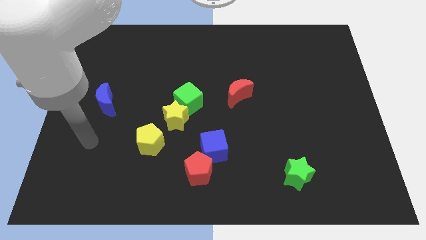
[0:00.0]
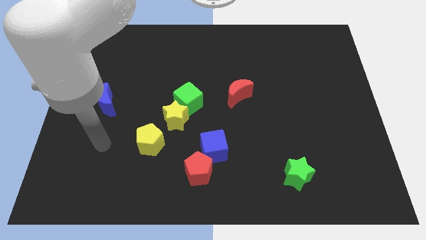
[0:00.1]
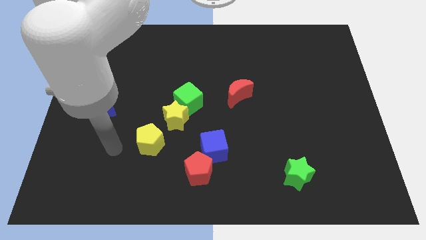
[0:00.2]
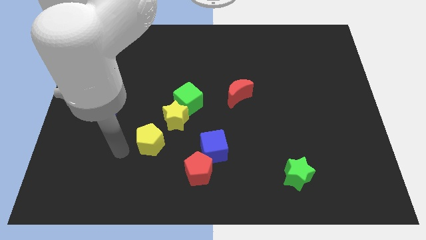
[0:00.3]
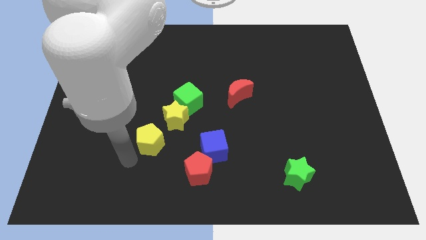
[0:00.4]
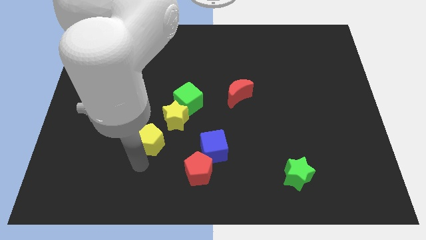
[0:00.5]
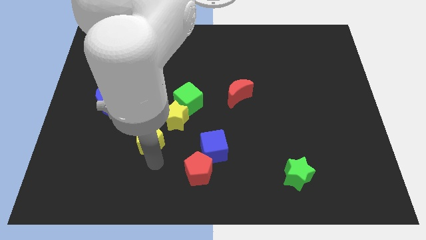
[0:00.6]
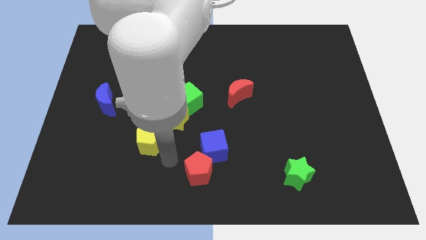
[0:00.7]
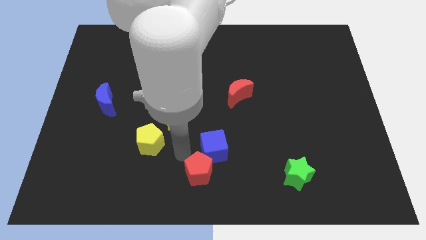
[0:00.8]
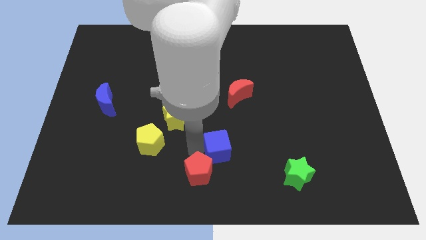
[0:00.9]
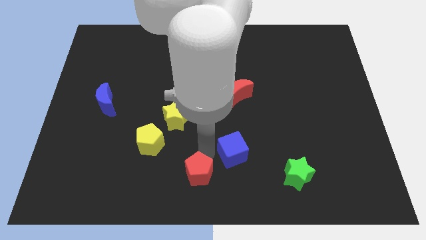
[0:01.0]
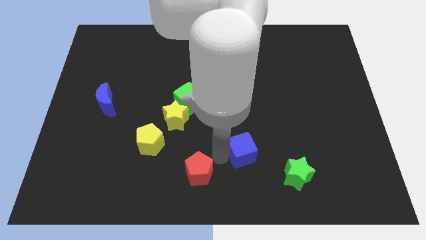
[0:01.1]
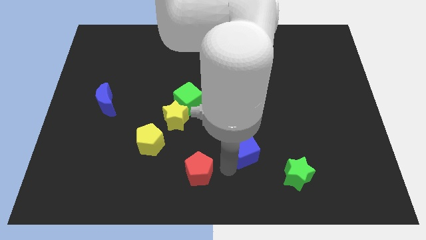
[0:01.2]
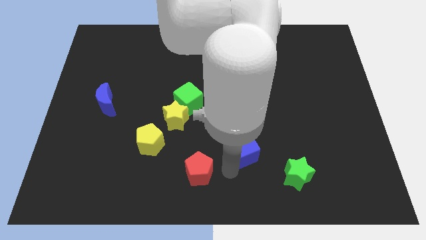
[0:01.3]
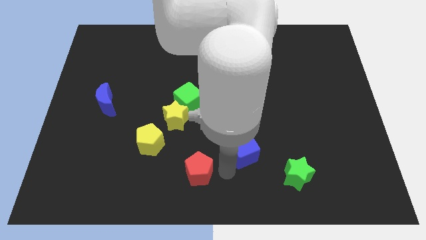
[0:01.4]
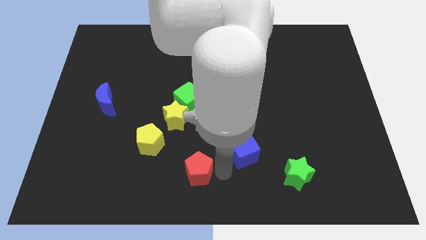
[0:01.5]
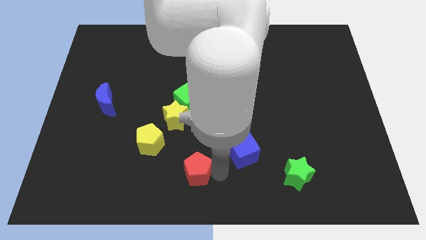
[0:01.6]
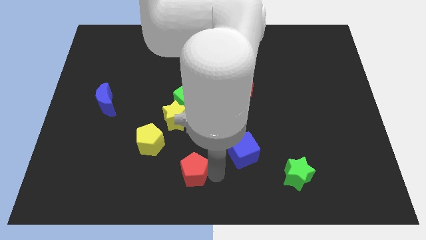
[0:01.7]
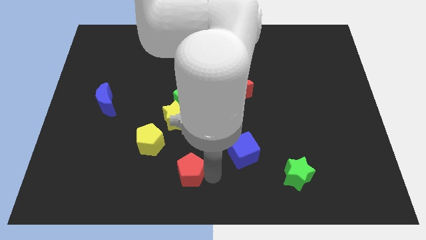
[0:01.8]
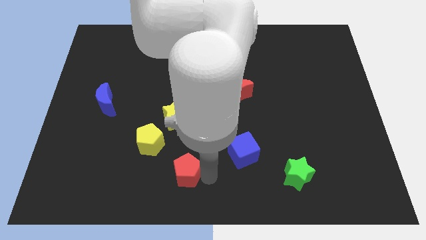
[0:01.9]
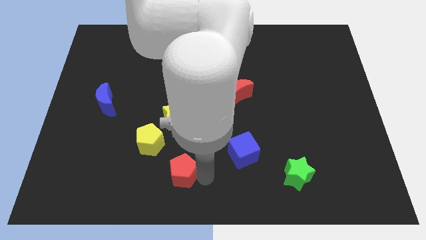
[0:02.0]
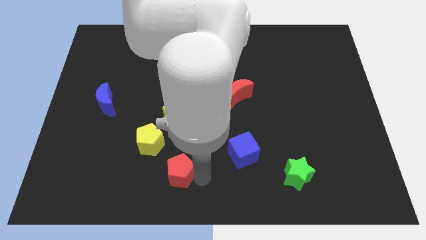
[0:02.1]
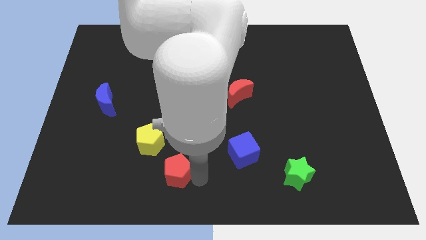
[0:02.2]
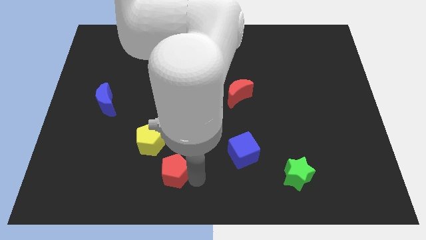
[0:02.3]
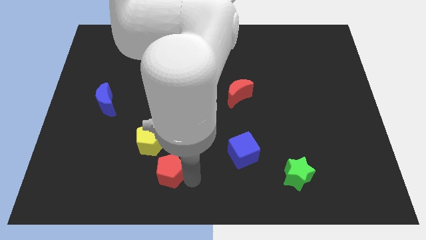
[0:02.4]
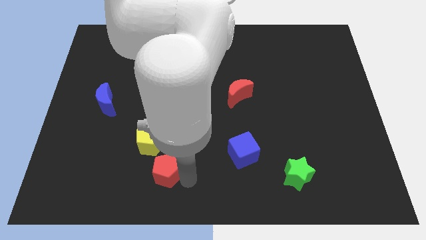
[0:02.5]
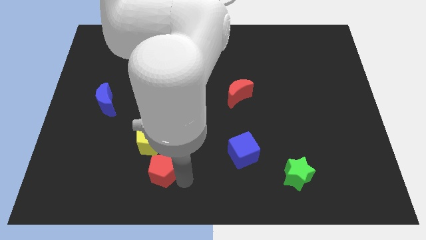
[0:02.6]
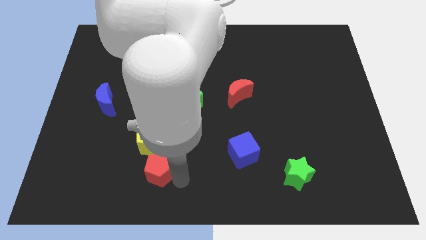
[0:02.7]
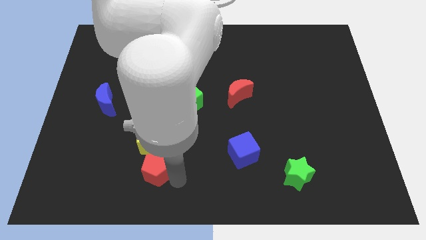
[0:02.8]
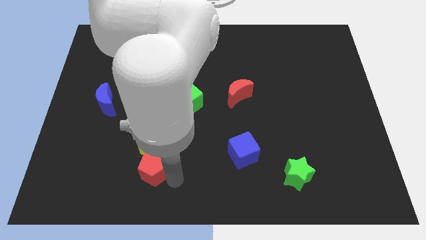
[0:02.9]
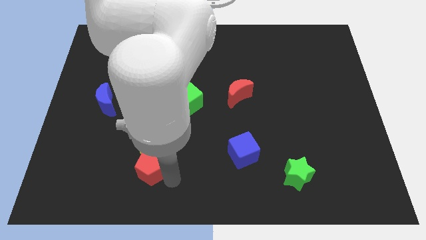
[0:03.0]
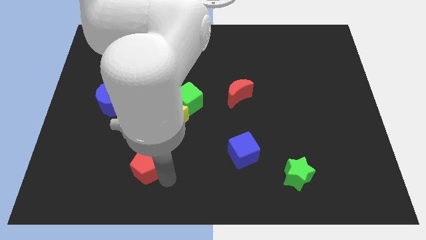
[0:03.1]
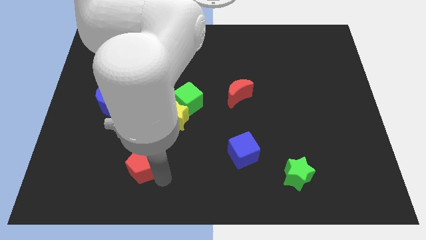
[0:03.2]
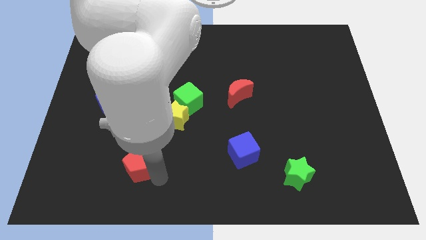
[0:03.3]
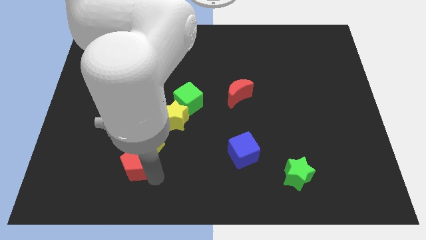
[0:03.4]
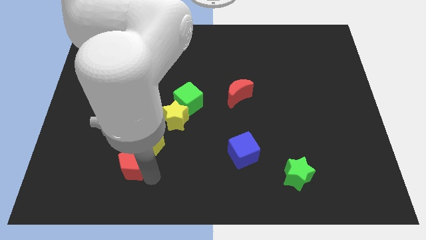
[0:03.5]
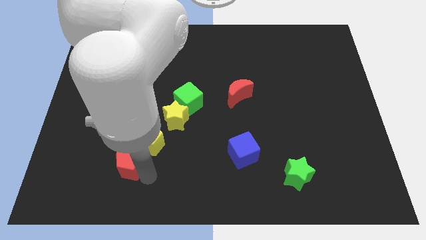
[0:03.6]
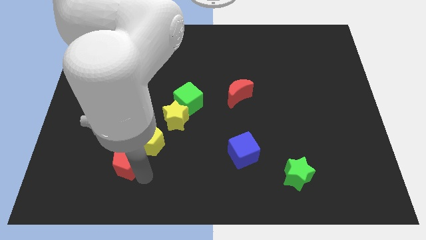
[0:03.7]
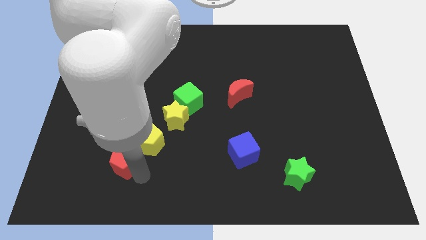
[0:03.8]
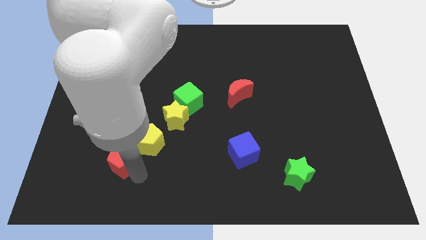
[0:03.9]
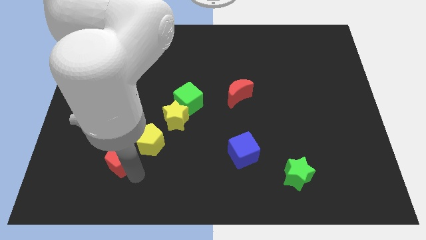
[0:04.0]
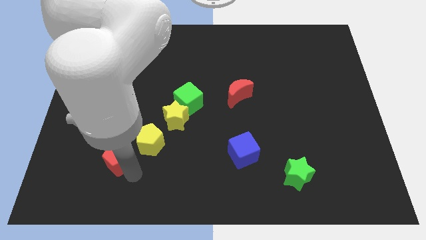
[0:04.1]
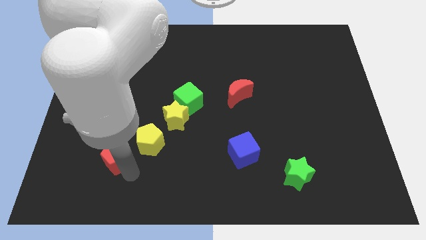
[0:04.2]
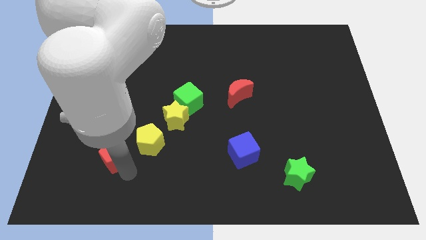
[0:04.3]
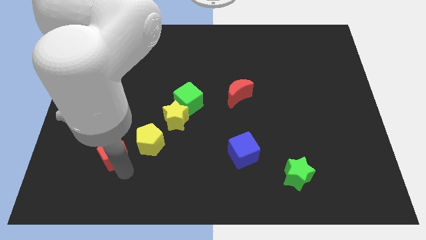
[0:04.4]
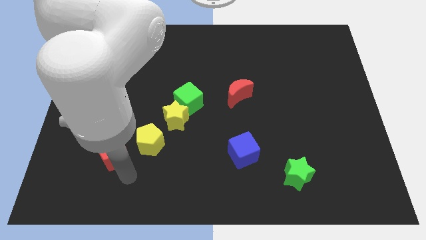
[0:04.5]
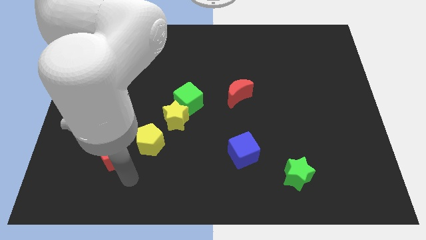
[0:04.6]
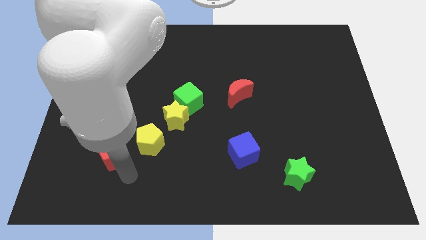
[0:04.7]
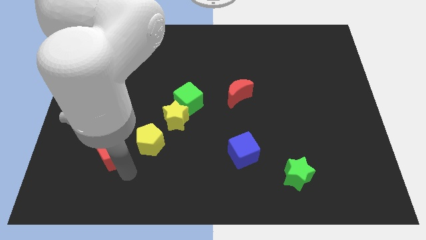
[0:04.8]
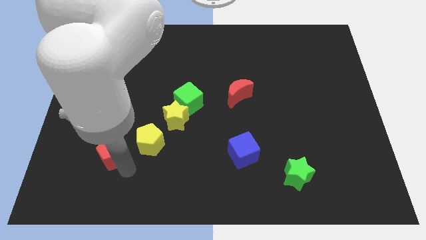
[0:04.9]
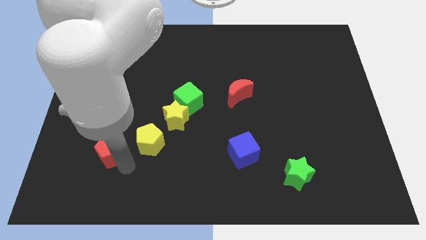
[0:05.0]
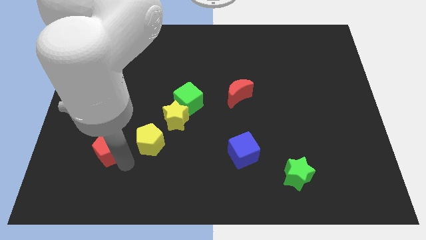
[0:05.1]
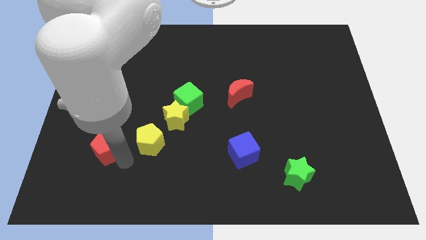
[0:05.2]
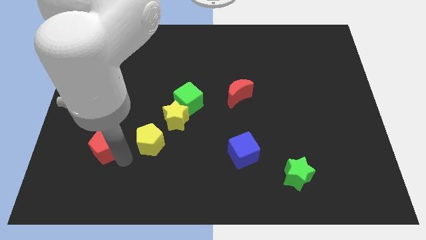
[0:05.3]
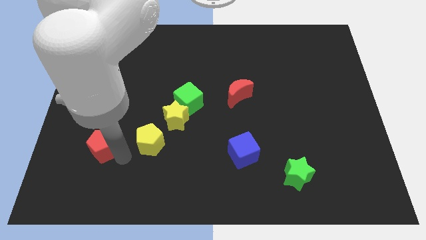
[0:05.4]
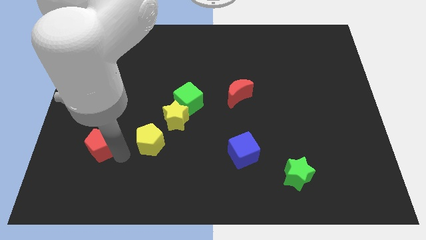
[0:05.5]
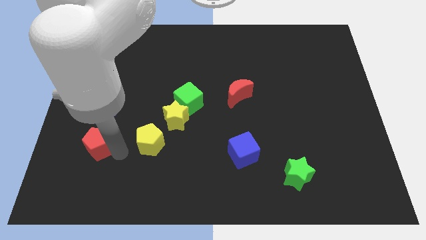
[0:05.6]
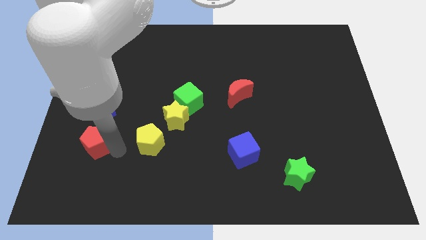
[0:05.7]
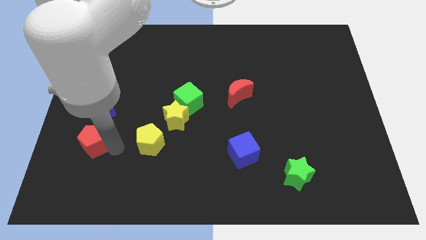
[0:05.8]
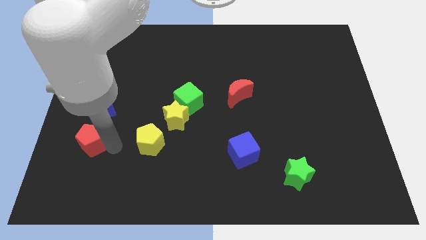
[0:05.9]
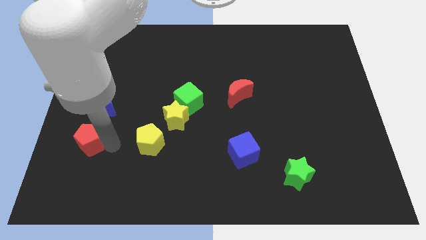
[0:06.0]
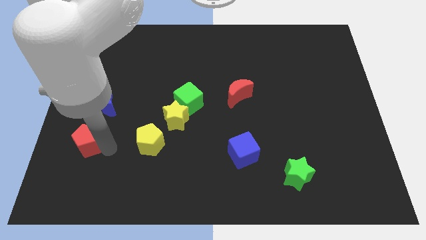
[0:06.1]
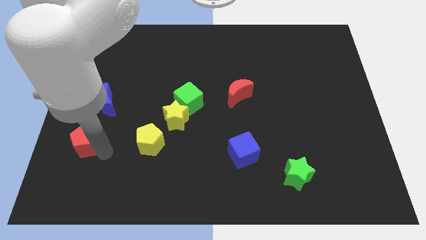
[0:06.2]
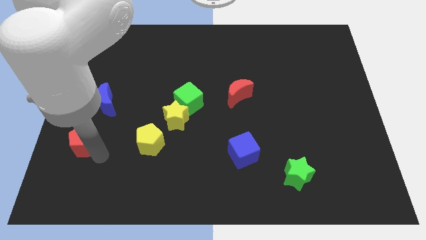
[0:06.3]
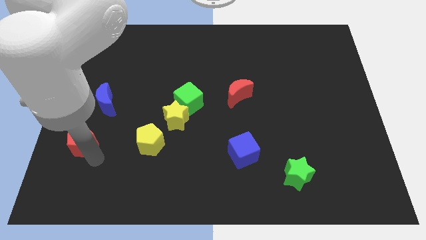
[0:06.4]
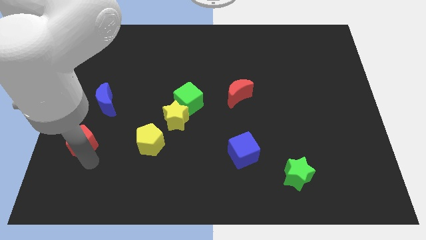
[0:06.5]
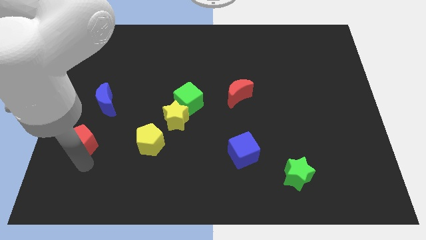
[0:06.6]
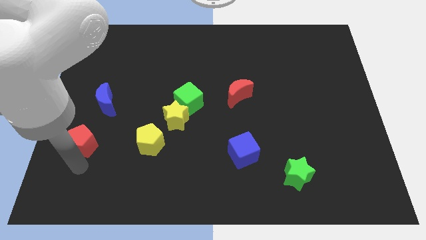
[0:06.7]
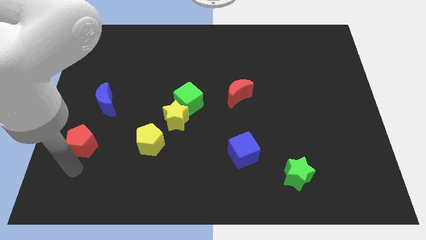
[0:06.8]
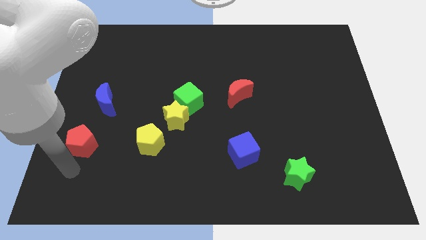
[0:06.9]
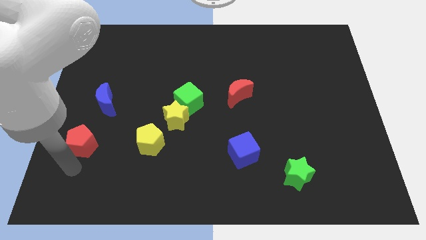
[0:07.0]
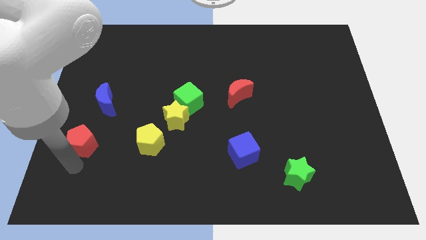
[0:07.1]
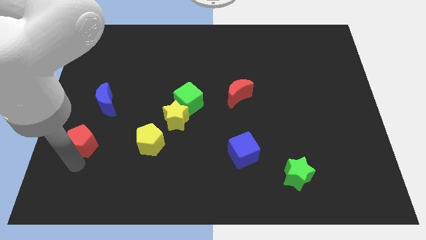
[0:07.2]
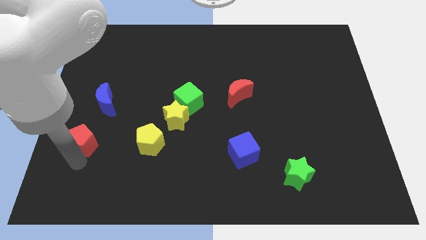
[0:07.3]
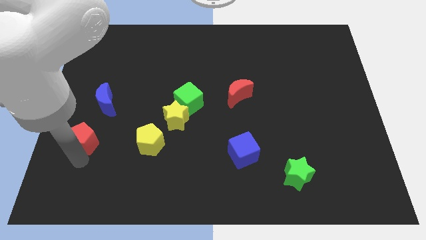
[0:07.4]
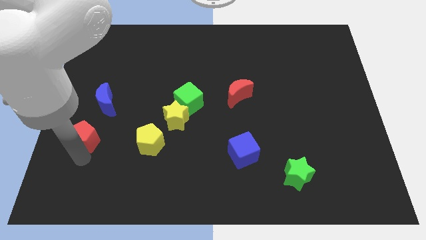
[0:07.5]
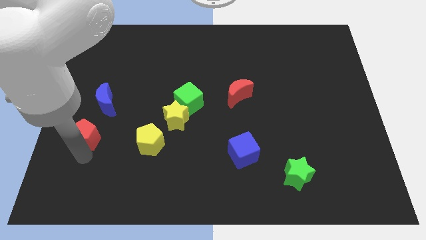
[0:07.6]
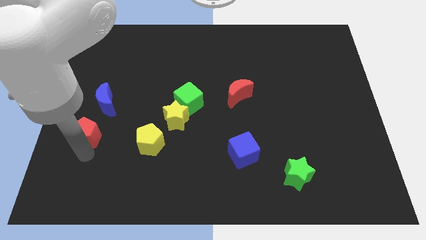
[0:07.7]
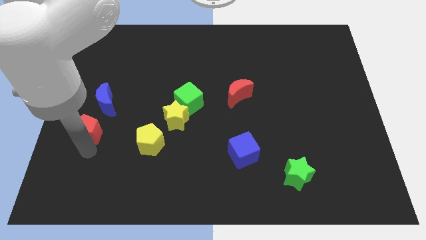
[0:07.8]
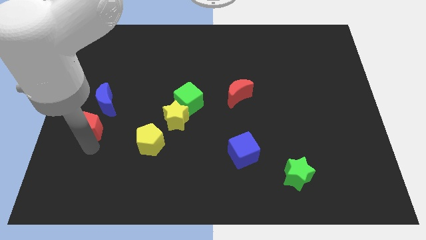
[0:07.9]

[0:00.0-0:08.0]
move the red pentagon upwards and to the left diagonally

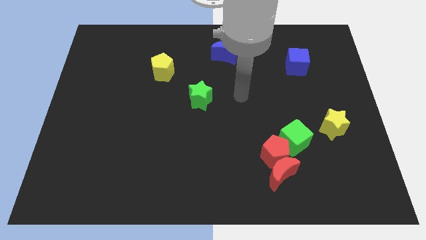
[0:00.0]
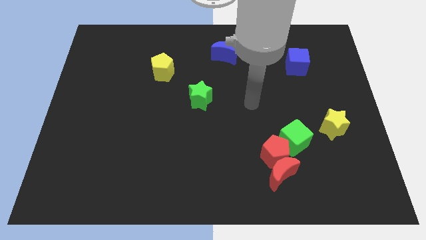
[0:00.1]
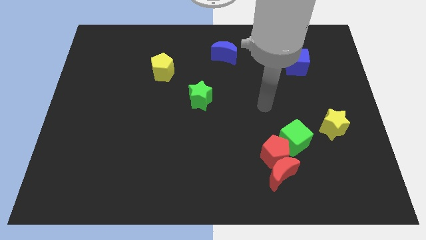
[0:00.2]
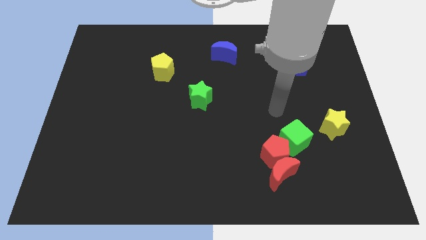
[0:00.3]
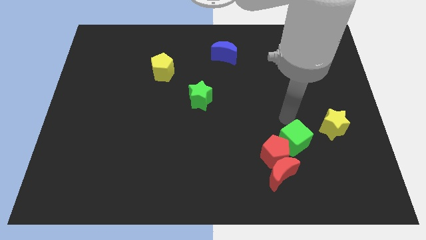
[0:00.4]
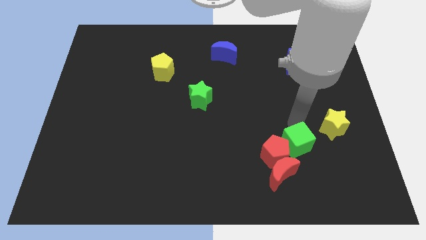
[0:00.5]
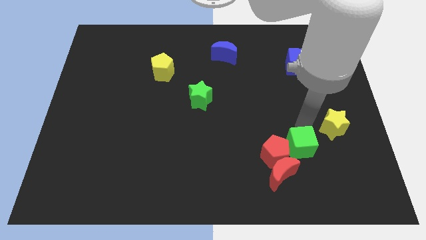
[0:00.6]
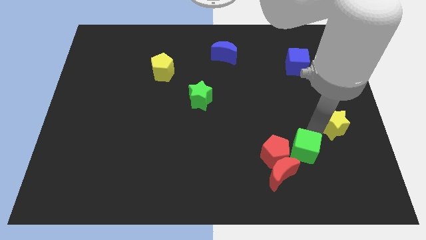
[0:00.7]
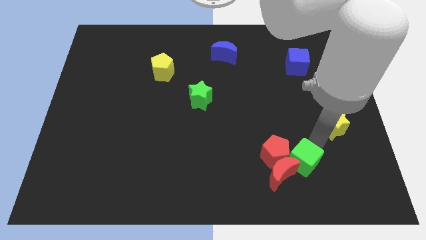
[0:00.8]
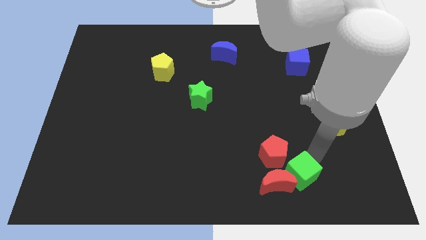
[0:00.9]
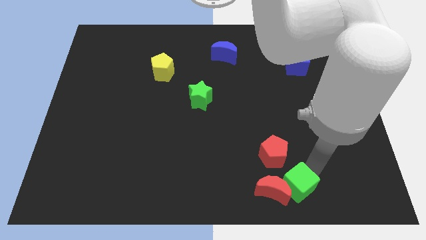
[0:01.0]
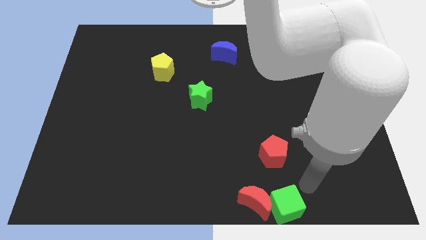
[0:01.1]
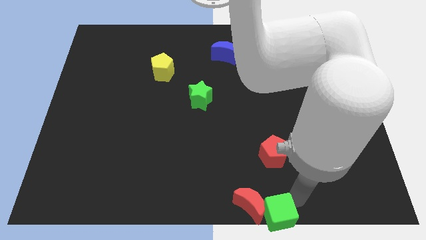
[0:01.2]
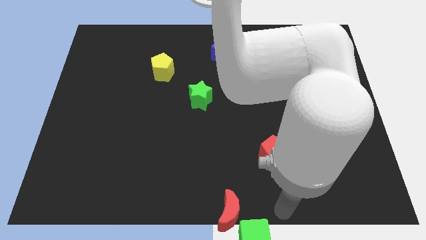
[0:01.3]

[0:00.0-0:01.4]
slide the red moon a bit to the left
